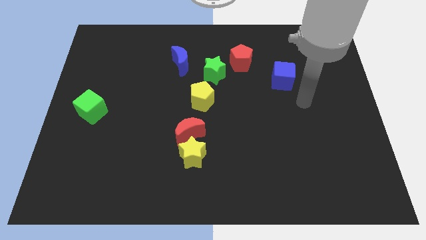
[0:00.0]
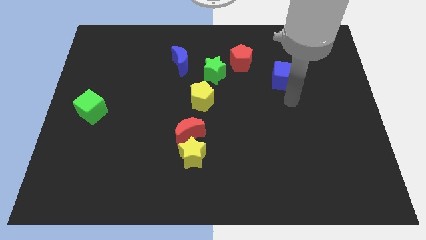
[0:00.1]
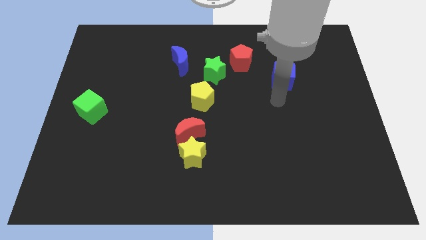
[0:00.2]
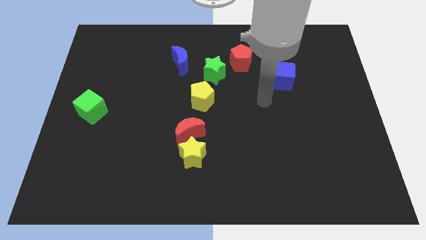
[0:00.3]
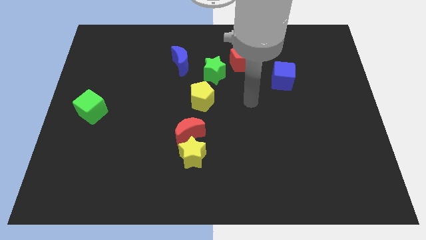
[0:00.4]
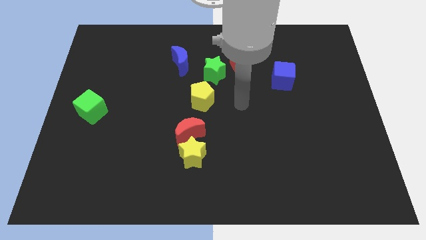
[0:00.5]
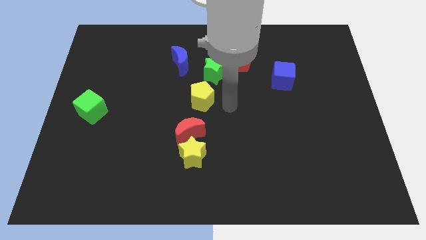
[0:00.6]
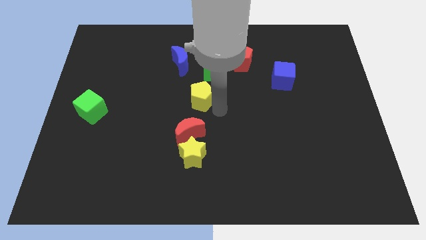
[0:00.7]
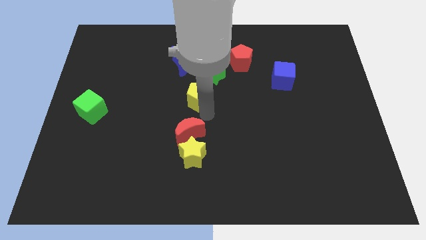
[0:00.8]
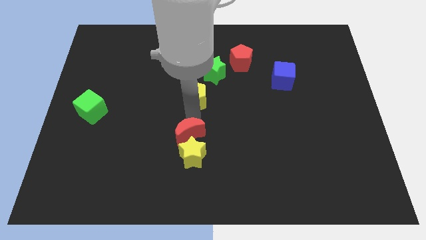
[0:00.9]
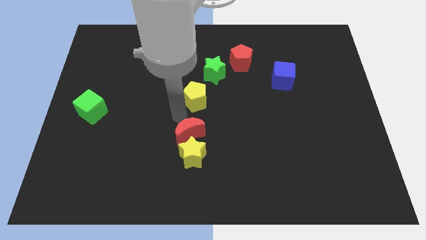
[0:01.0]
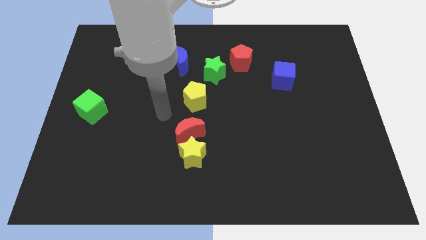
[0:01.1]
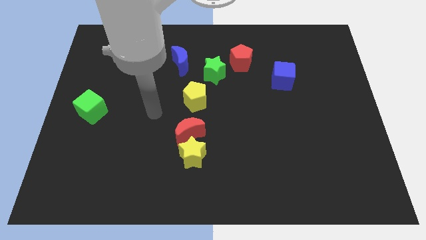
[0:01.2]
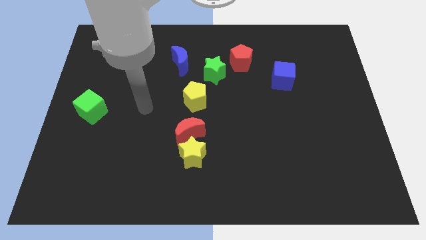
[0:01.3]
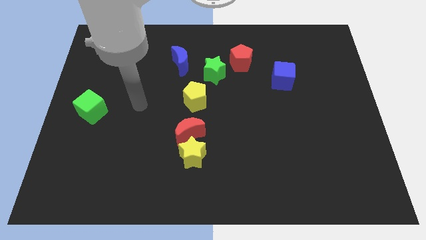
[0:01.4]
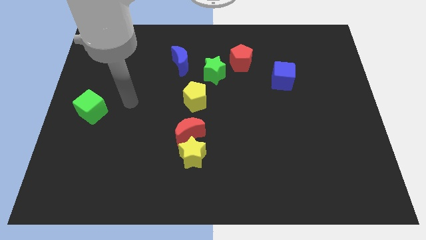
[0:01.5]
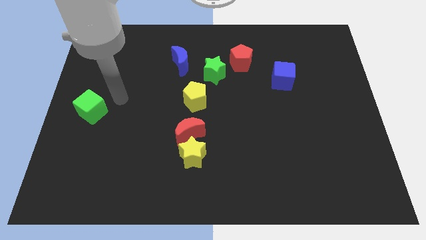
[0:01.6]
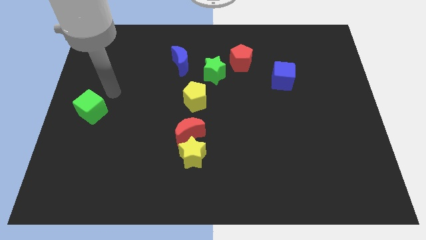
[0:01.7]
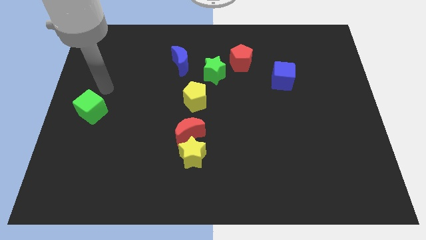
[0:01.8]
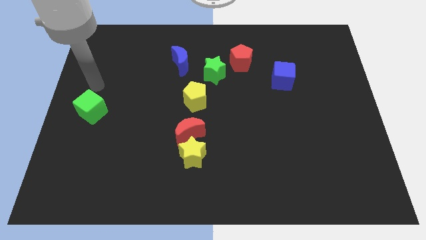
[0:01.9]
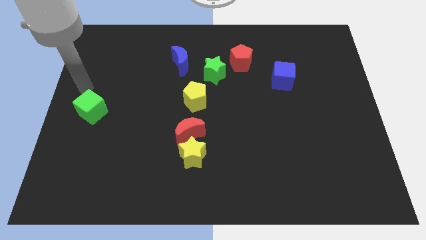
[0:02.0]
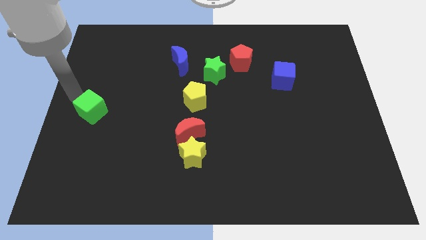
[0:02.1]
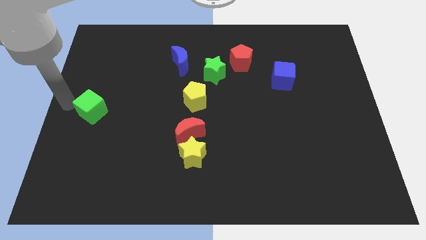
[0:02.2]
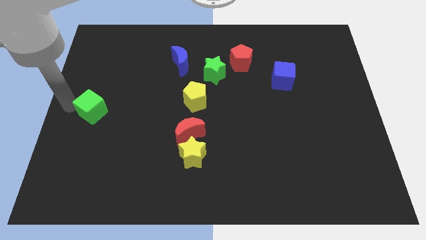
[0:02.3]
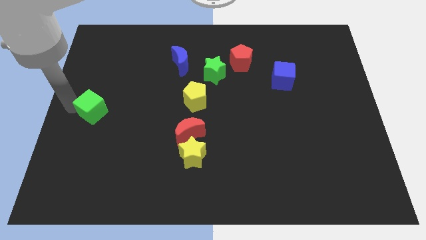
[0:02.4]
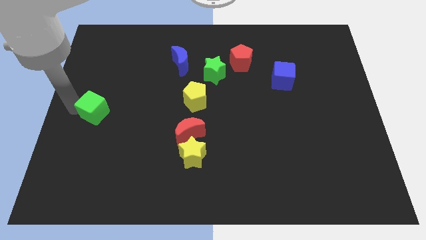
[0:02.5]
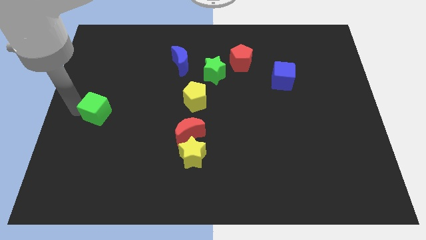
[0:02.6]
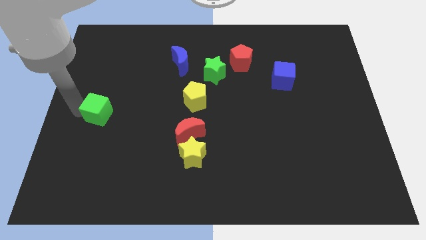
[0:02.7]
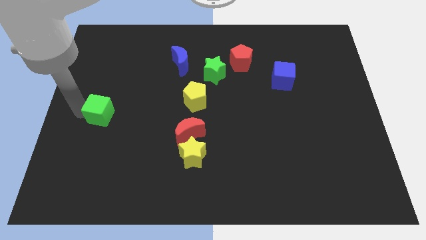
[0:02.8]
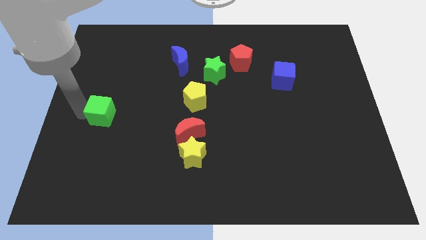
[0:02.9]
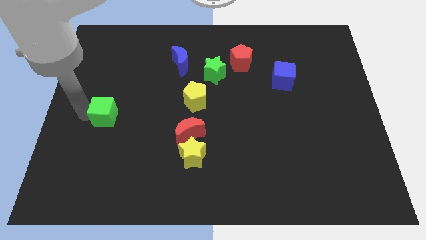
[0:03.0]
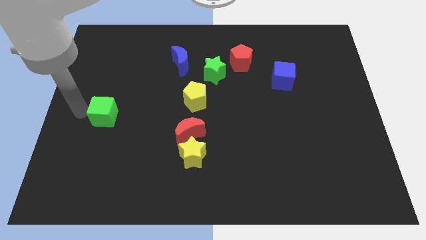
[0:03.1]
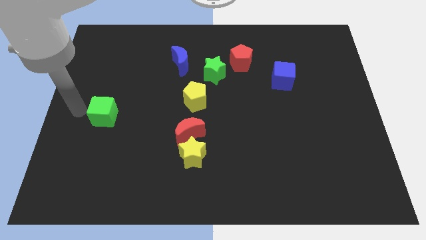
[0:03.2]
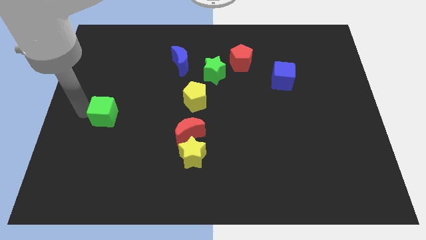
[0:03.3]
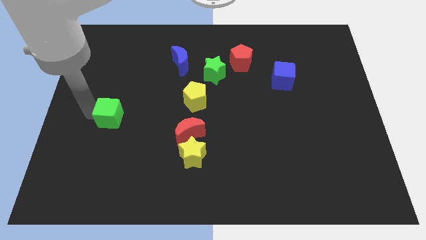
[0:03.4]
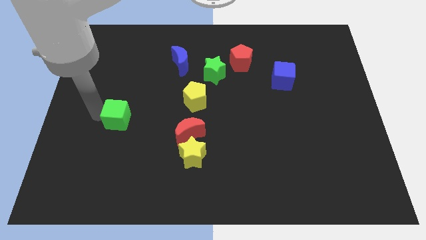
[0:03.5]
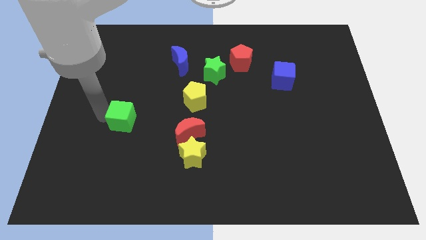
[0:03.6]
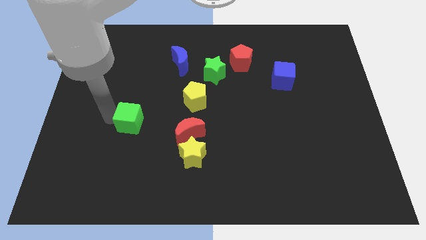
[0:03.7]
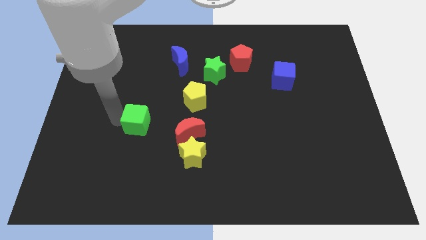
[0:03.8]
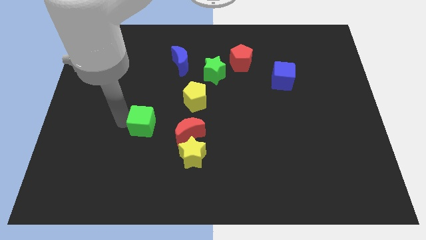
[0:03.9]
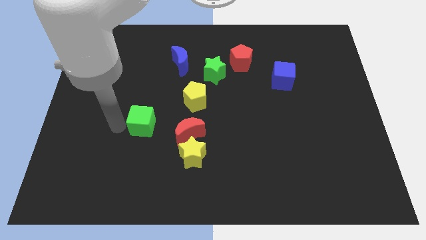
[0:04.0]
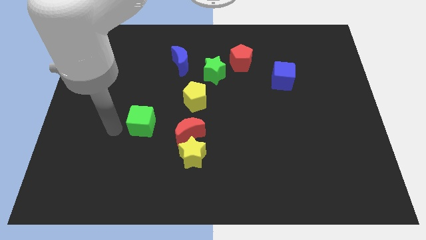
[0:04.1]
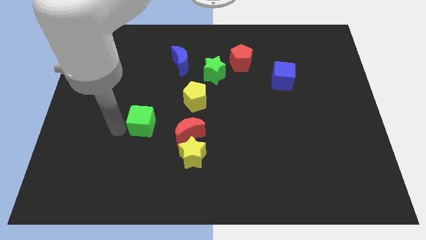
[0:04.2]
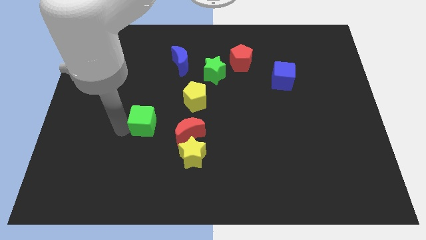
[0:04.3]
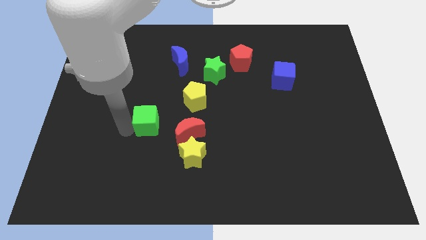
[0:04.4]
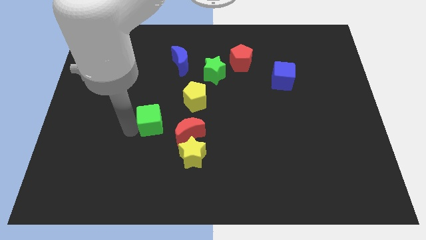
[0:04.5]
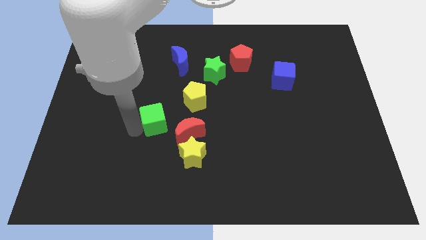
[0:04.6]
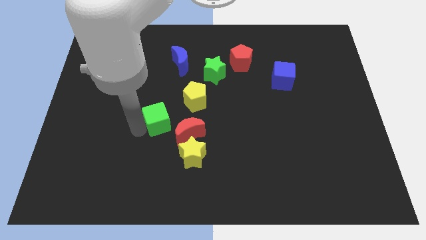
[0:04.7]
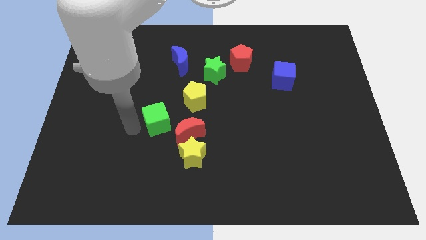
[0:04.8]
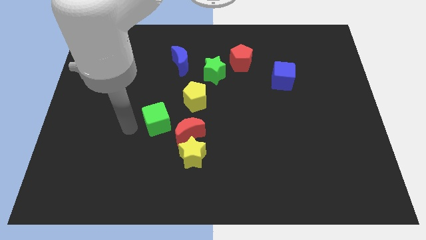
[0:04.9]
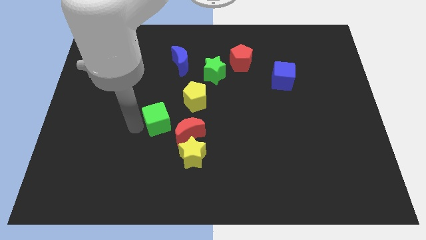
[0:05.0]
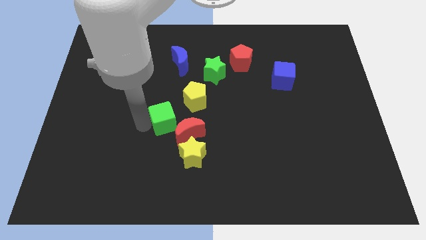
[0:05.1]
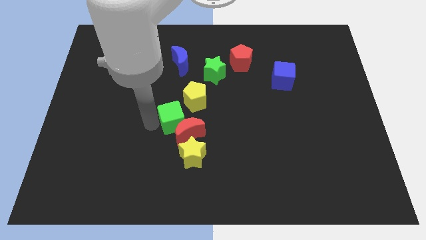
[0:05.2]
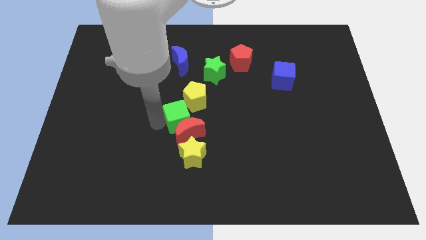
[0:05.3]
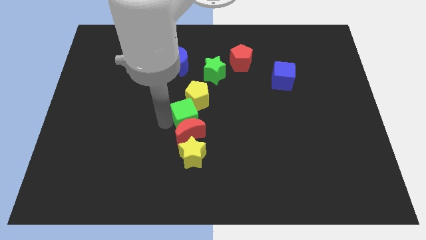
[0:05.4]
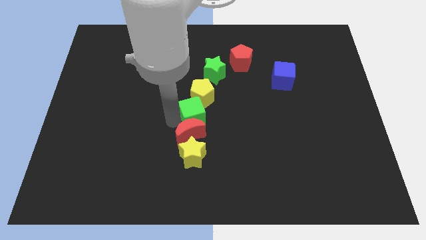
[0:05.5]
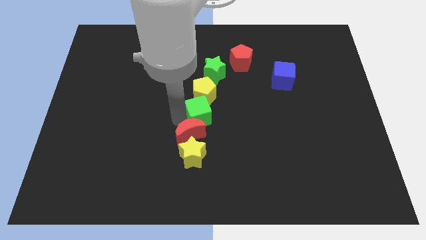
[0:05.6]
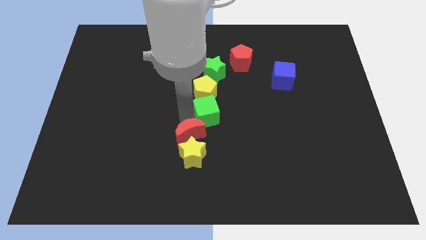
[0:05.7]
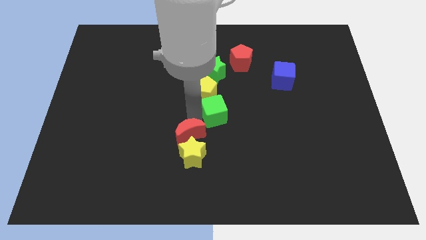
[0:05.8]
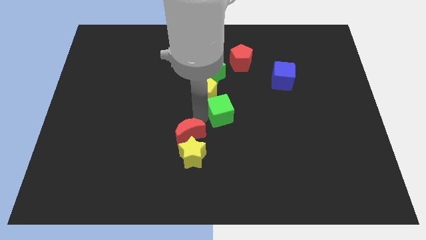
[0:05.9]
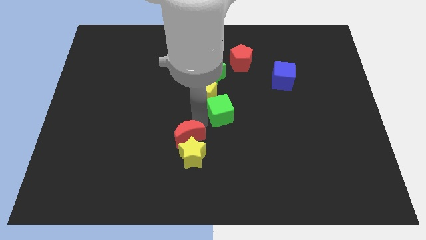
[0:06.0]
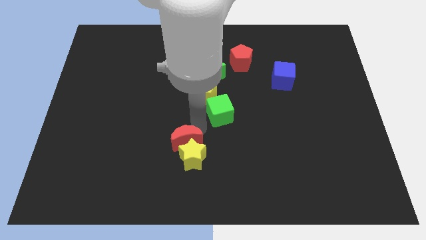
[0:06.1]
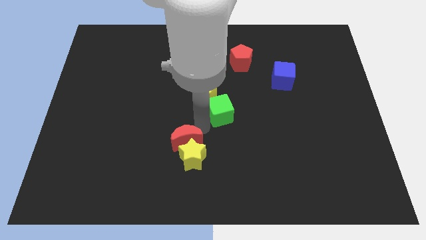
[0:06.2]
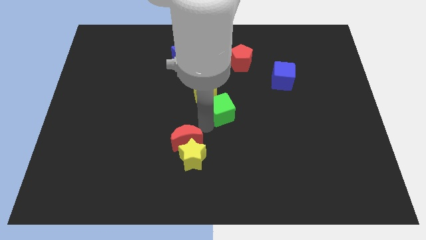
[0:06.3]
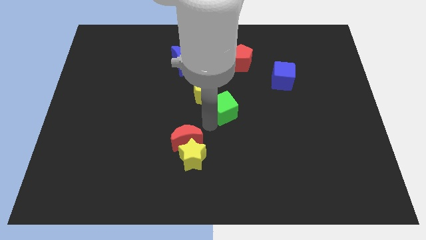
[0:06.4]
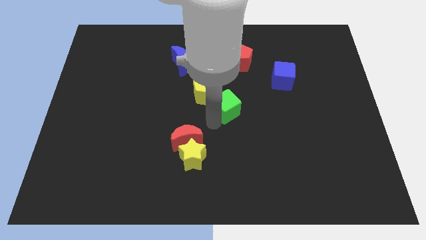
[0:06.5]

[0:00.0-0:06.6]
put the green cube to the right side of the yellow pentagon
